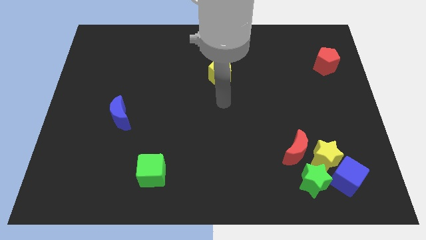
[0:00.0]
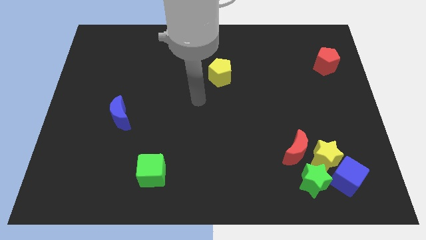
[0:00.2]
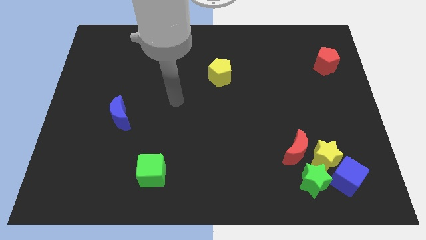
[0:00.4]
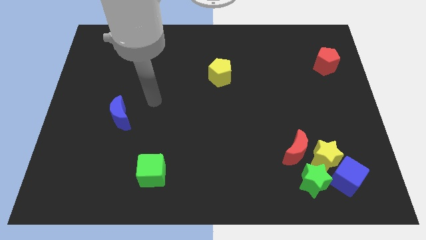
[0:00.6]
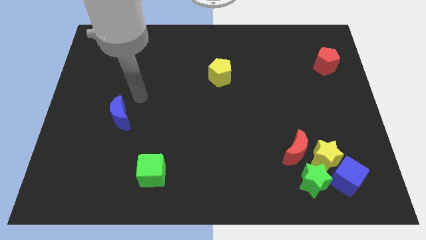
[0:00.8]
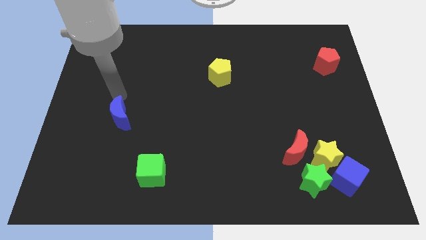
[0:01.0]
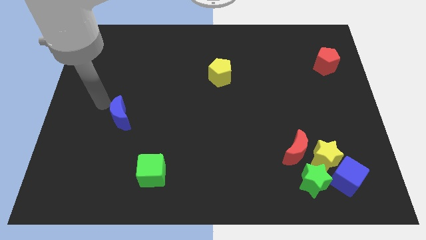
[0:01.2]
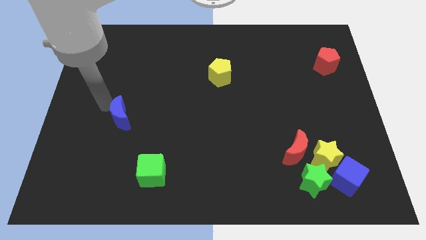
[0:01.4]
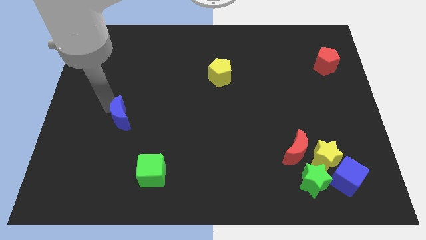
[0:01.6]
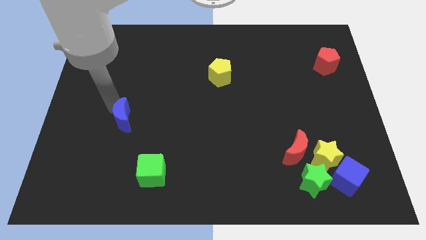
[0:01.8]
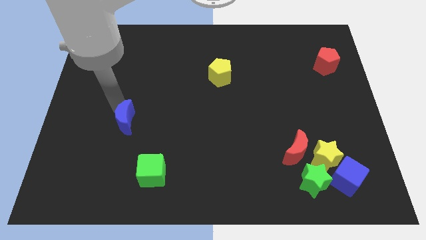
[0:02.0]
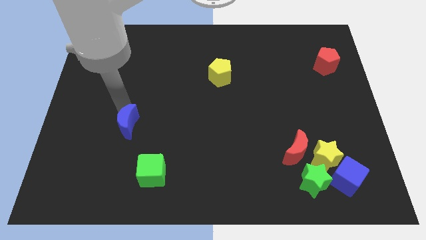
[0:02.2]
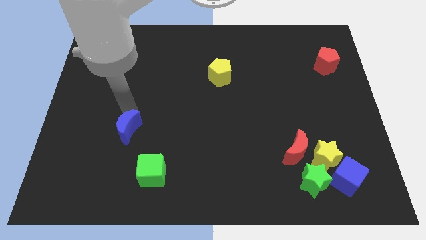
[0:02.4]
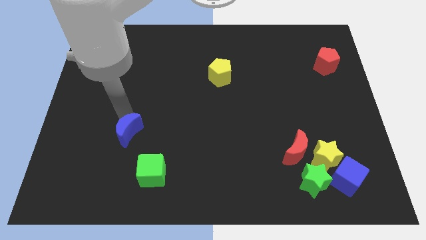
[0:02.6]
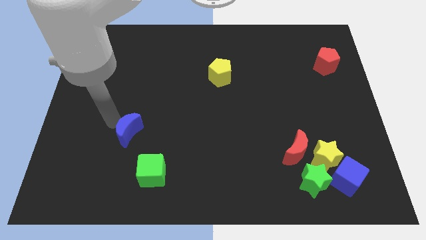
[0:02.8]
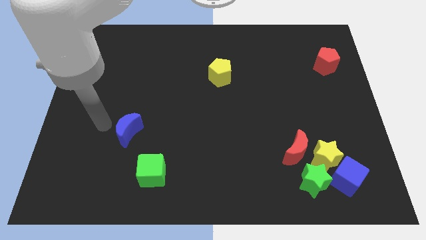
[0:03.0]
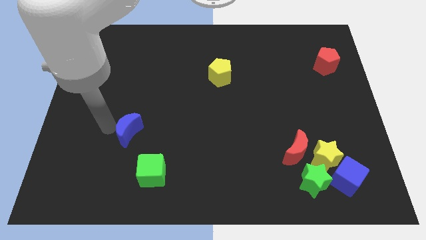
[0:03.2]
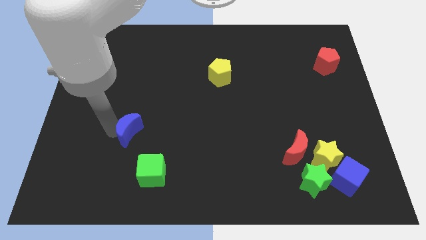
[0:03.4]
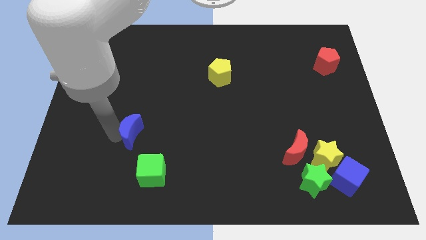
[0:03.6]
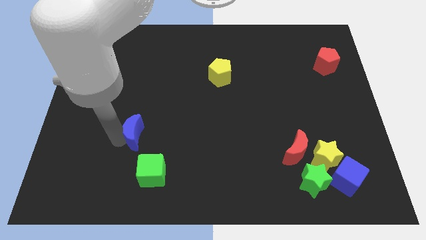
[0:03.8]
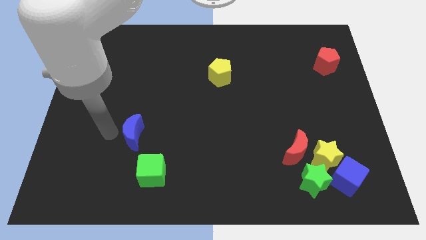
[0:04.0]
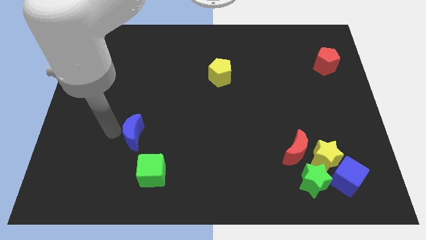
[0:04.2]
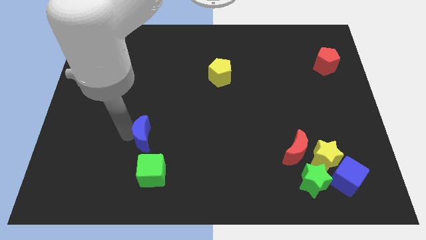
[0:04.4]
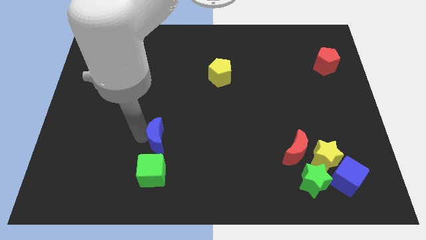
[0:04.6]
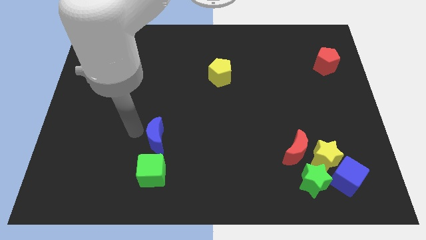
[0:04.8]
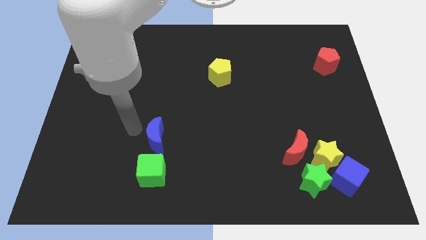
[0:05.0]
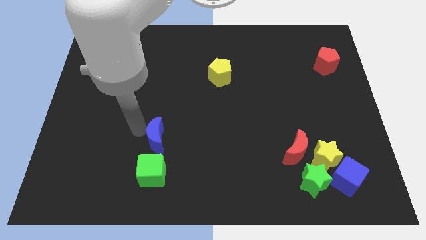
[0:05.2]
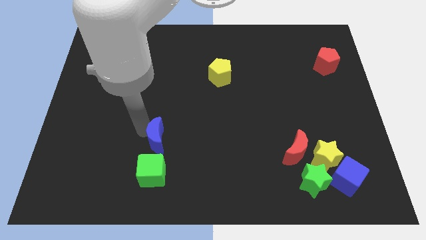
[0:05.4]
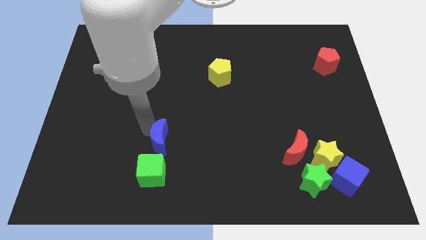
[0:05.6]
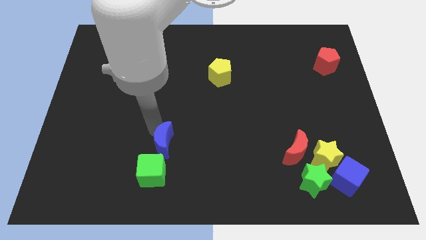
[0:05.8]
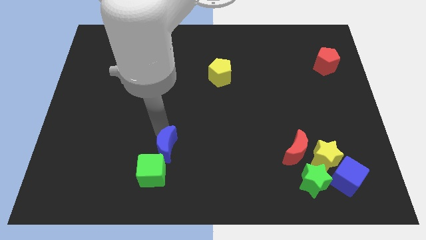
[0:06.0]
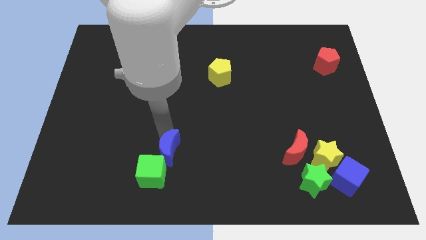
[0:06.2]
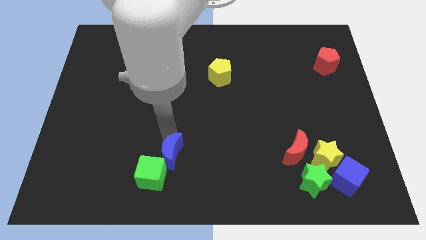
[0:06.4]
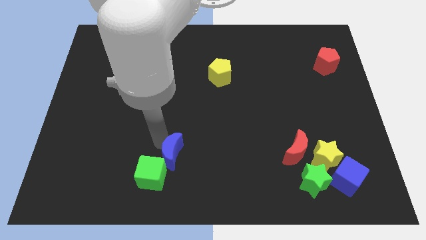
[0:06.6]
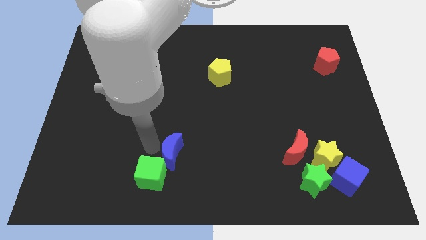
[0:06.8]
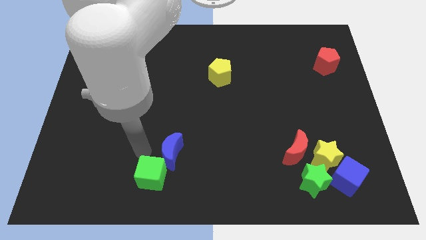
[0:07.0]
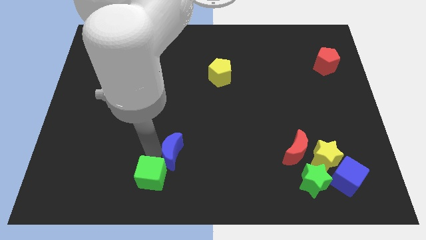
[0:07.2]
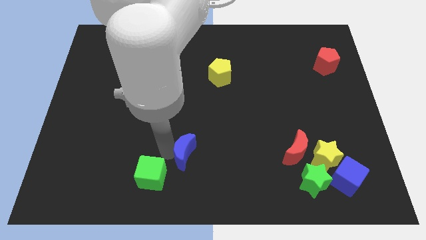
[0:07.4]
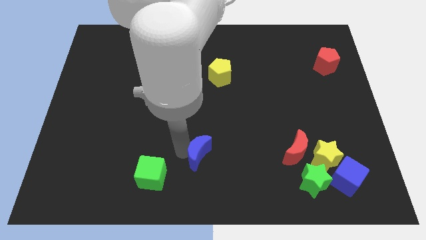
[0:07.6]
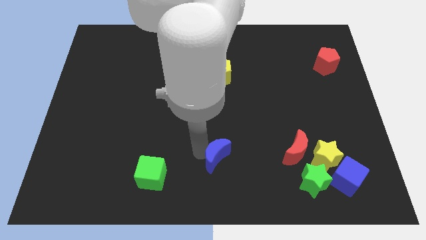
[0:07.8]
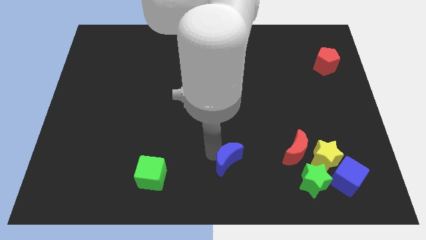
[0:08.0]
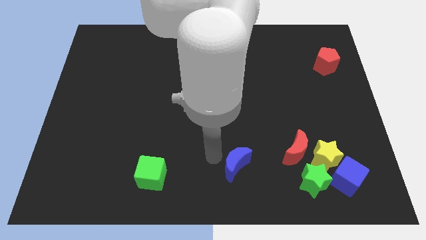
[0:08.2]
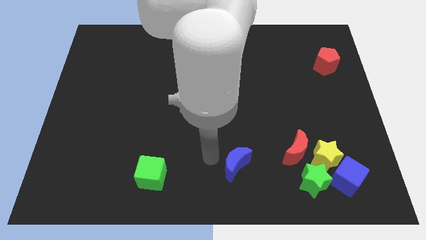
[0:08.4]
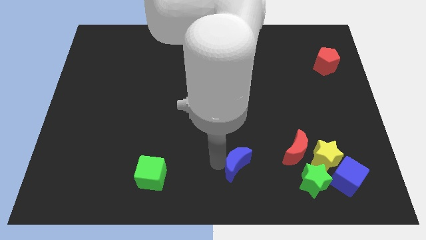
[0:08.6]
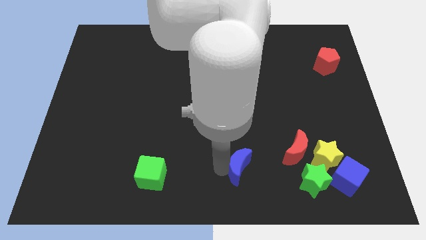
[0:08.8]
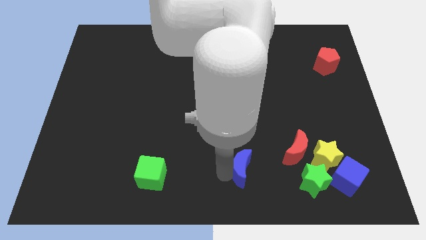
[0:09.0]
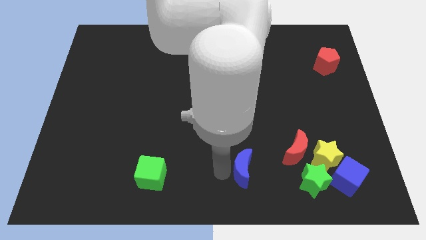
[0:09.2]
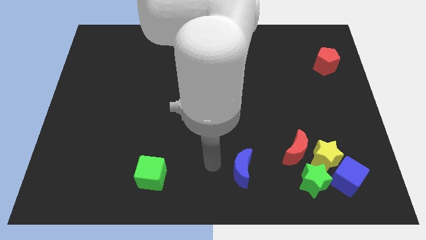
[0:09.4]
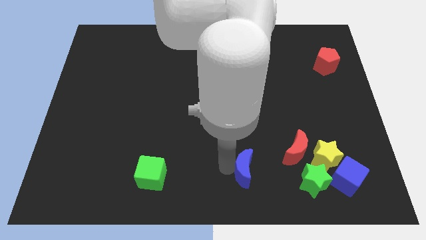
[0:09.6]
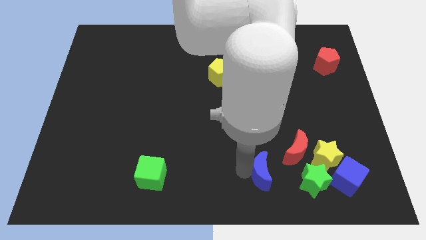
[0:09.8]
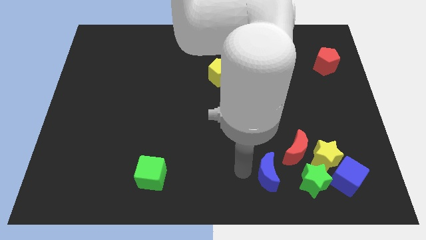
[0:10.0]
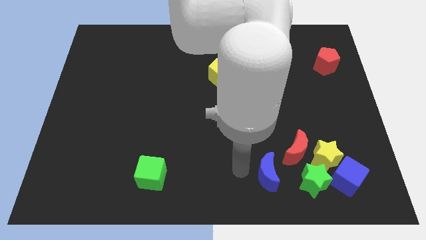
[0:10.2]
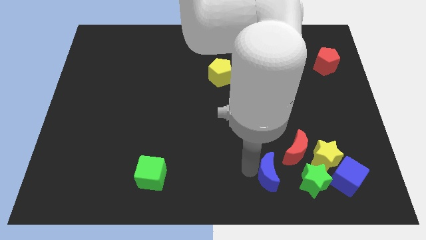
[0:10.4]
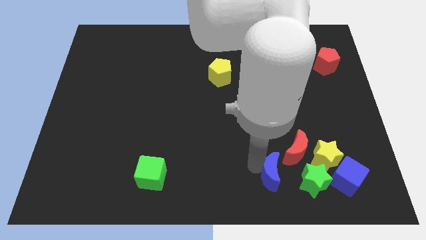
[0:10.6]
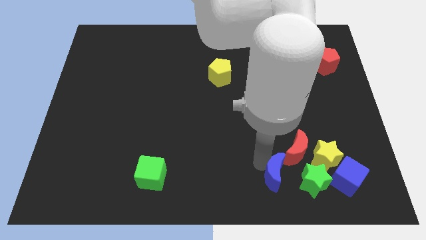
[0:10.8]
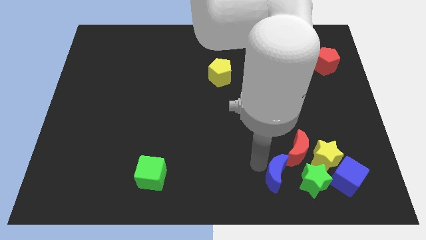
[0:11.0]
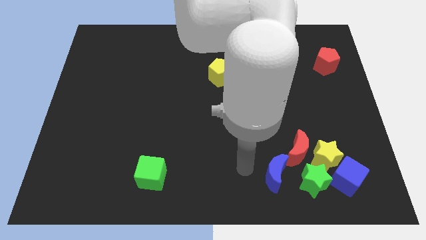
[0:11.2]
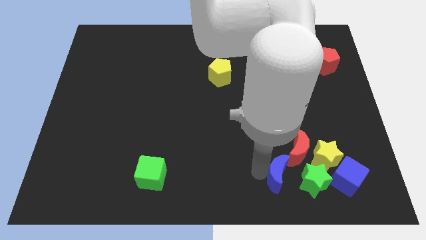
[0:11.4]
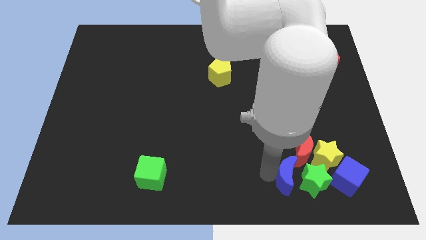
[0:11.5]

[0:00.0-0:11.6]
slide the blue moon close to the green star
